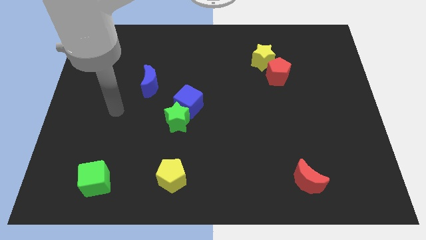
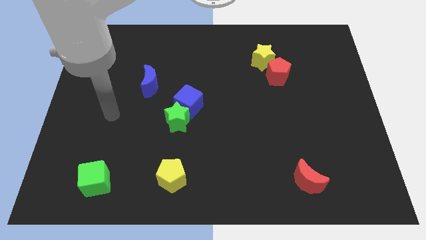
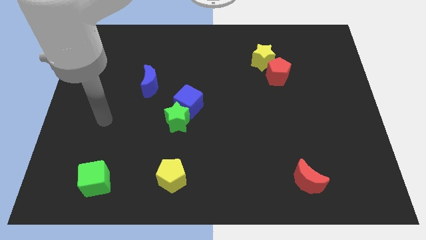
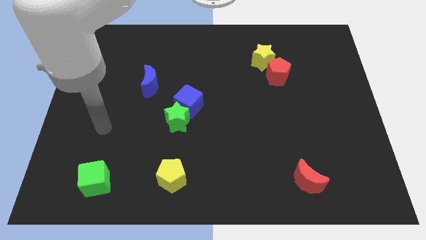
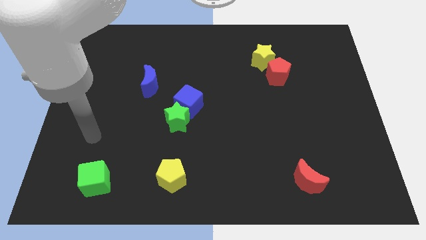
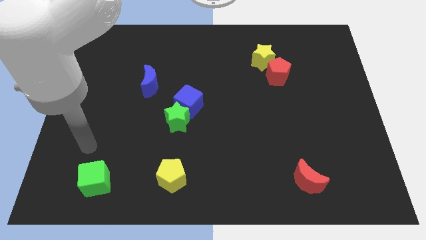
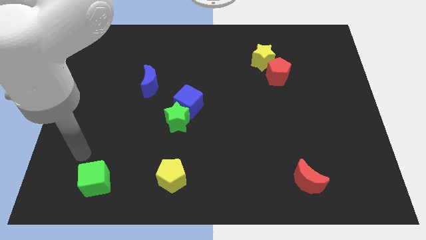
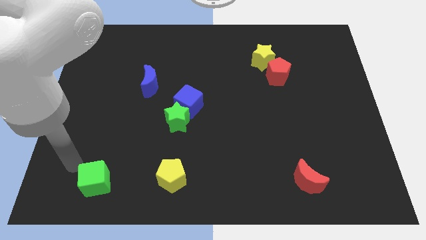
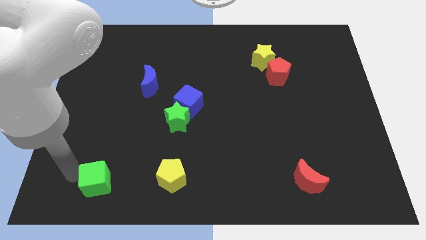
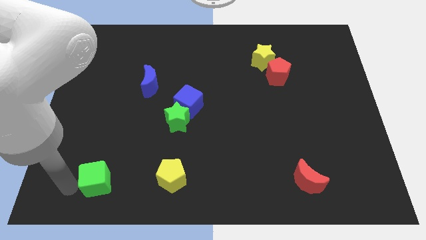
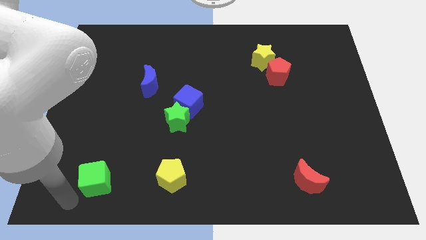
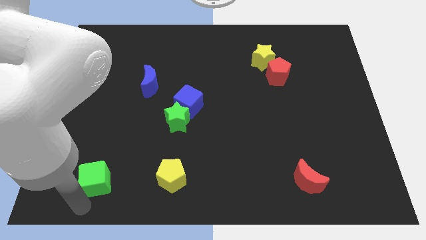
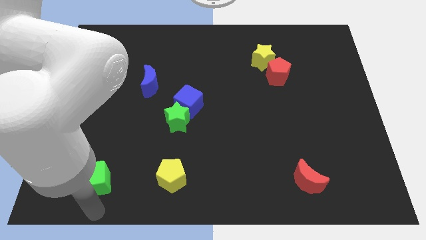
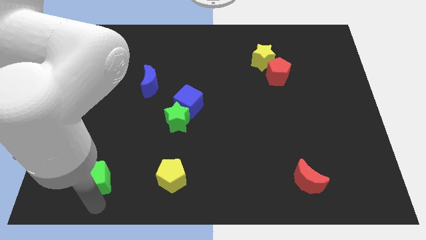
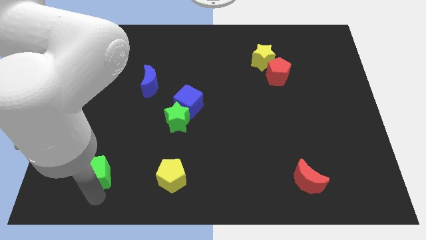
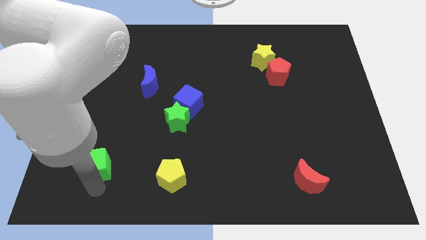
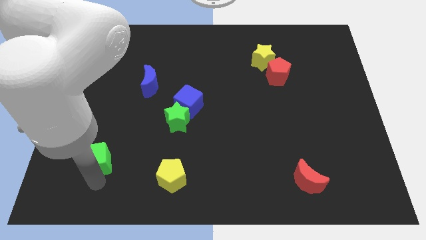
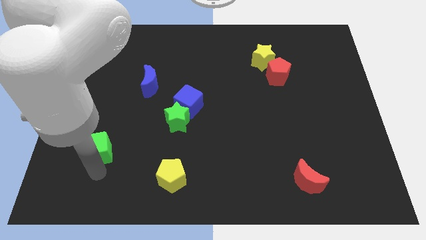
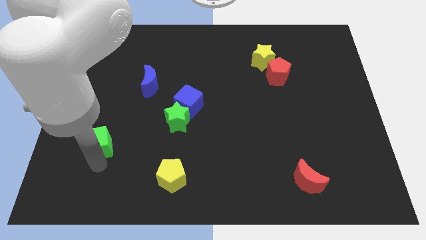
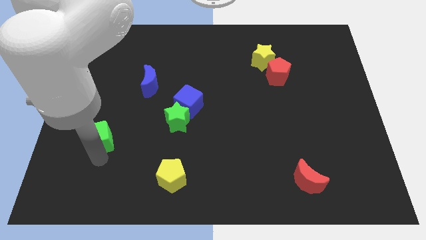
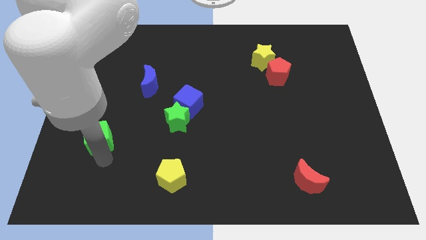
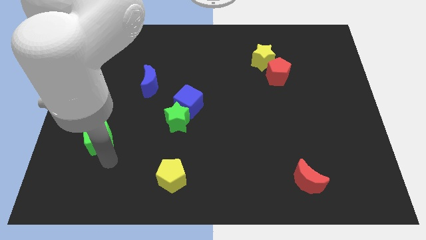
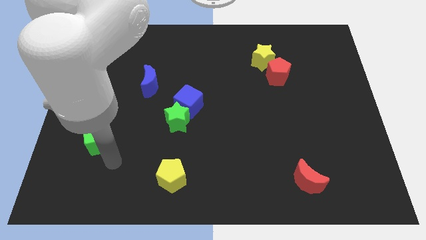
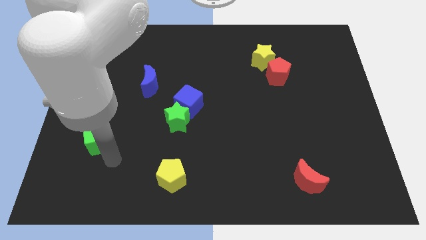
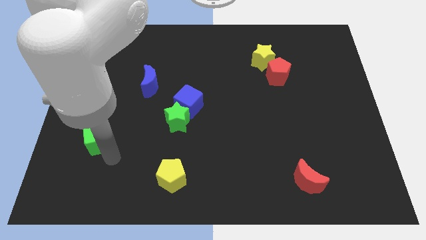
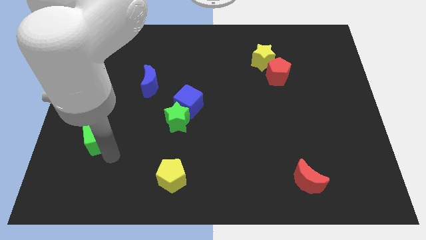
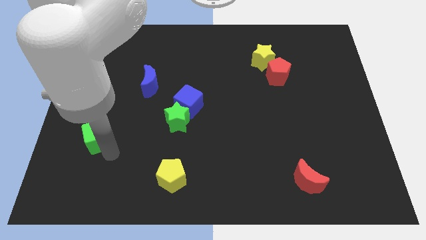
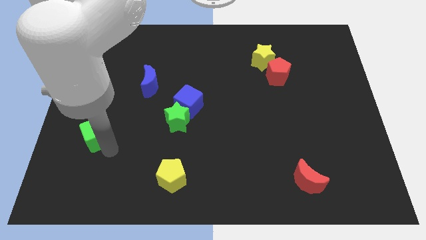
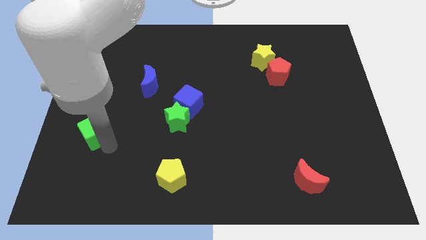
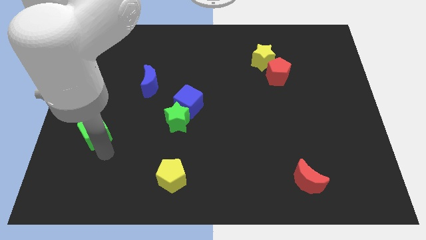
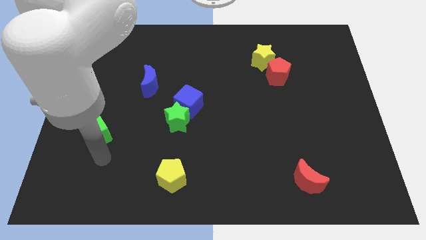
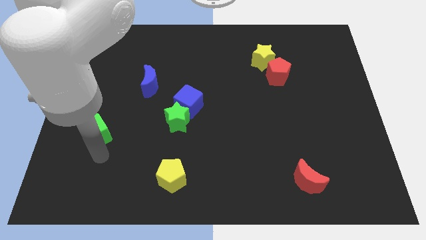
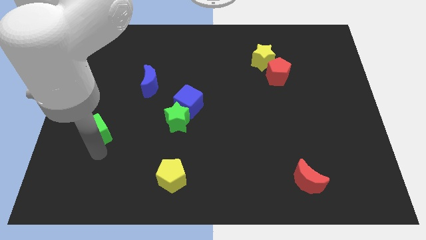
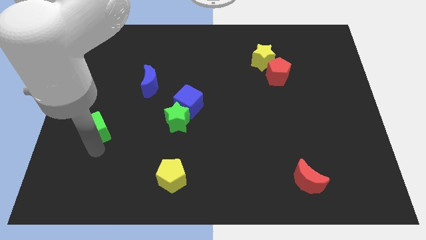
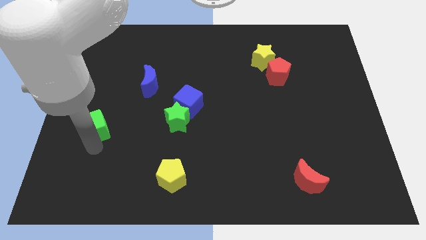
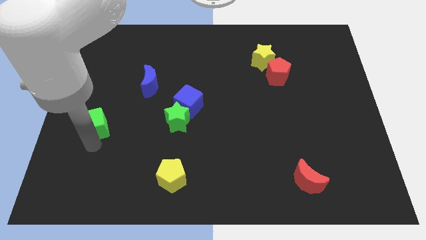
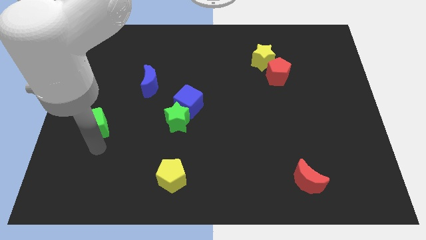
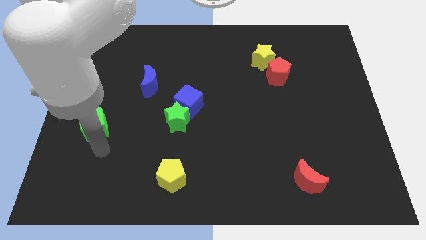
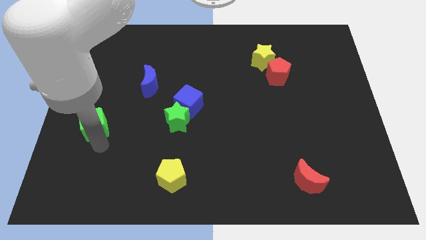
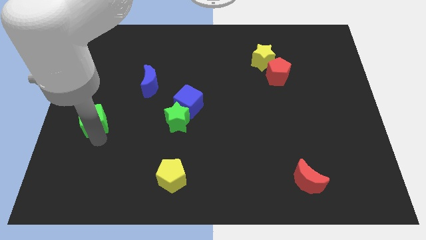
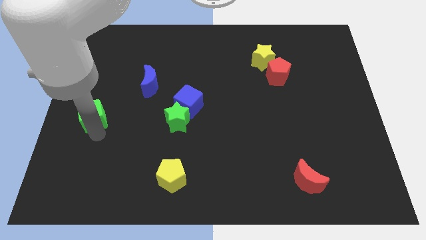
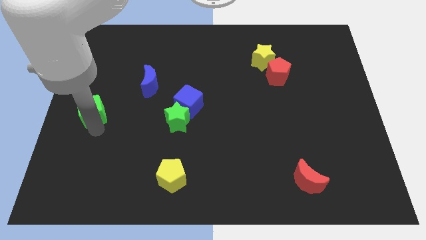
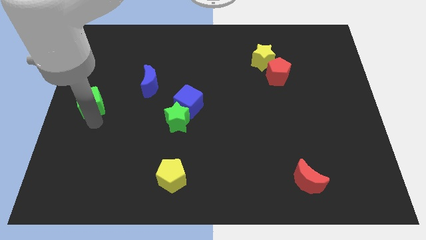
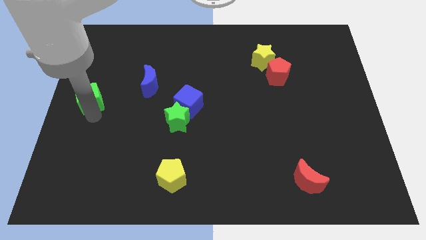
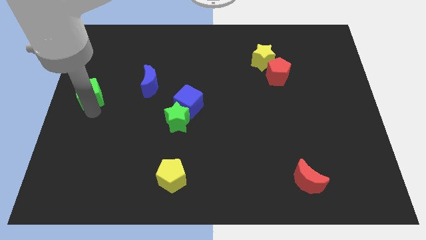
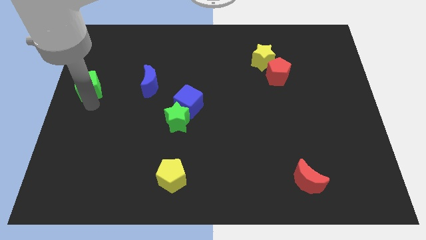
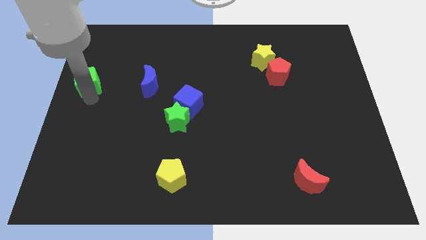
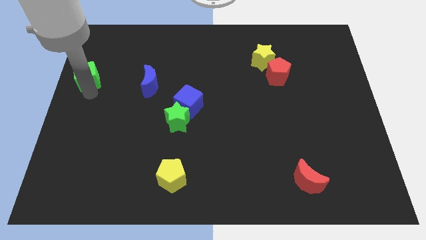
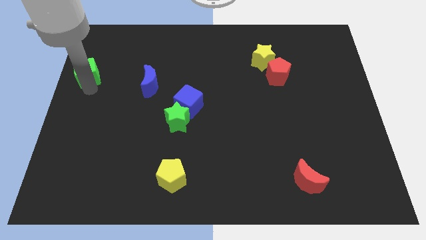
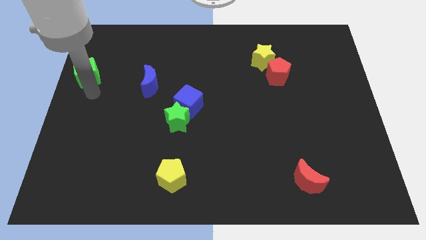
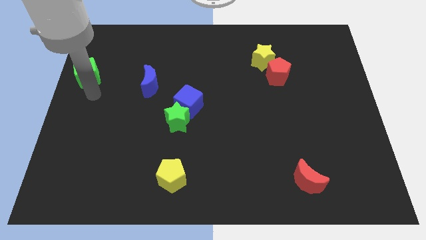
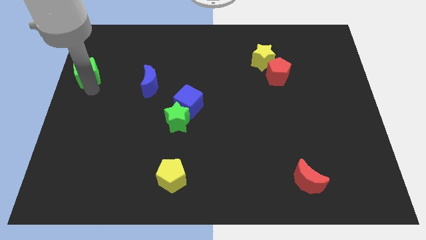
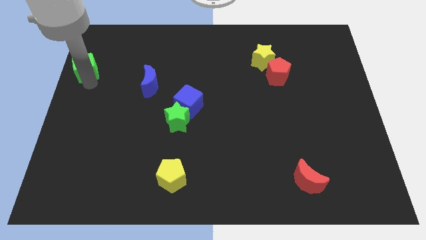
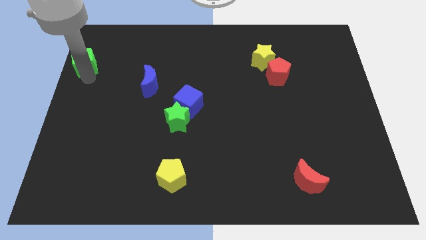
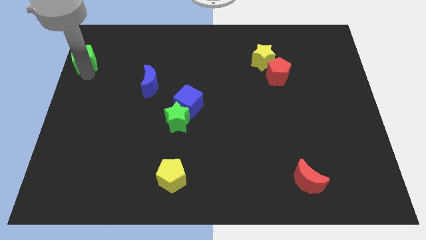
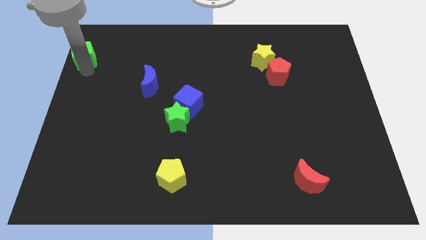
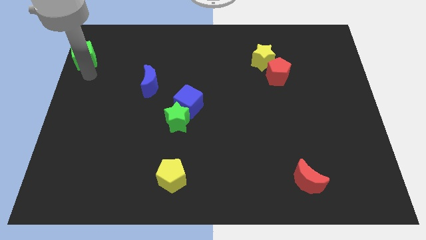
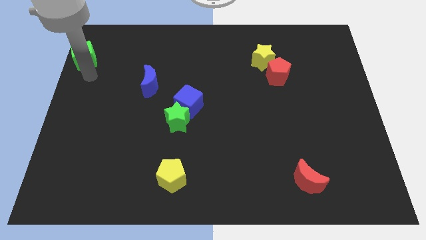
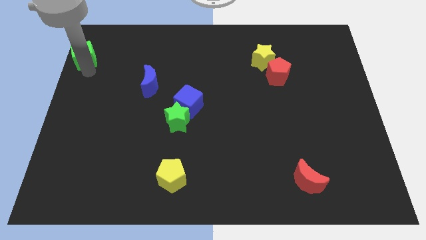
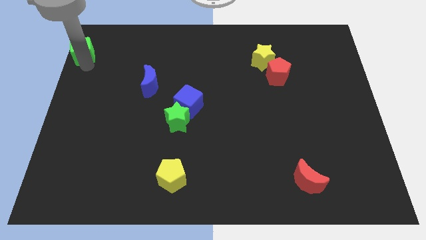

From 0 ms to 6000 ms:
put the green cube to the top left of the board
